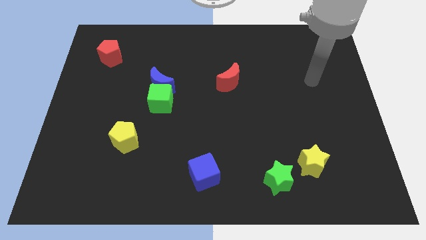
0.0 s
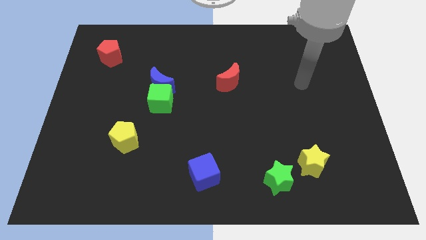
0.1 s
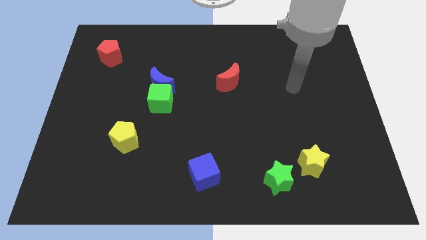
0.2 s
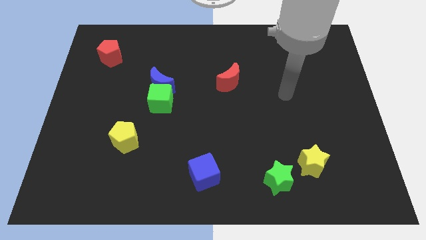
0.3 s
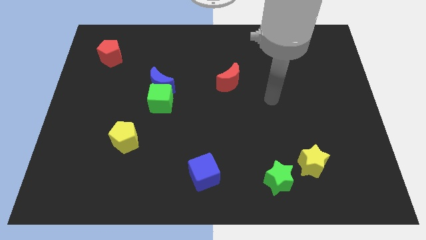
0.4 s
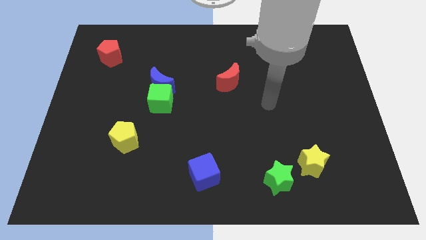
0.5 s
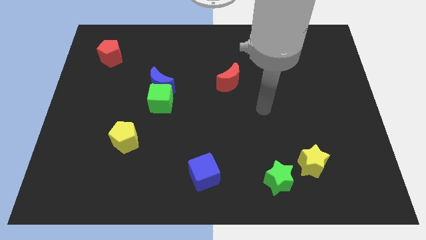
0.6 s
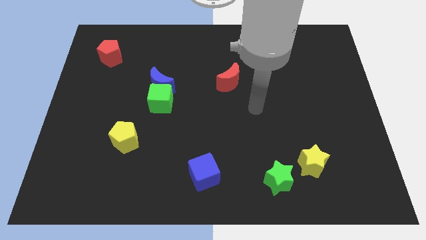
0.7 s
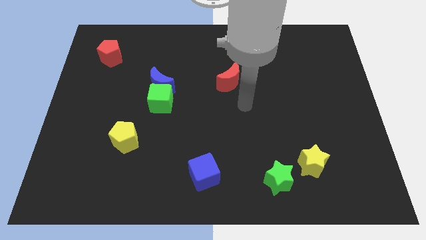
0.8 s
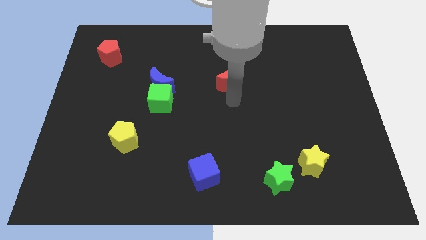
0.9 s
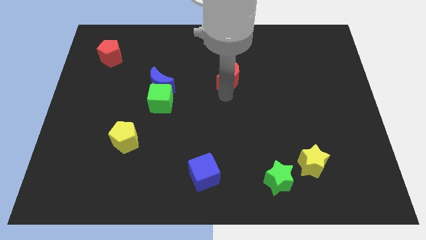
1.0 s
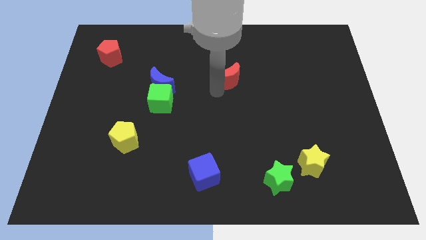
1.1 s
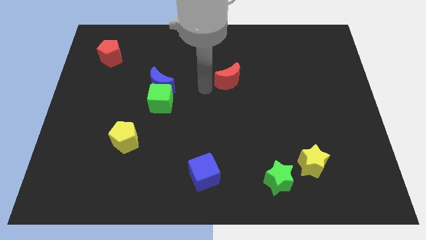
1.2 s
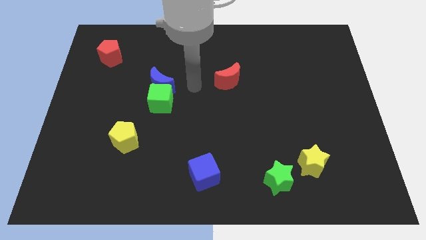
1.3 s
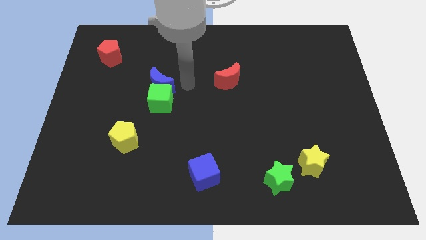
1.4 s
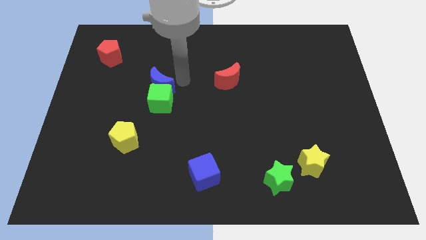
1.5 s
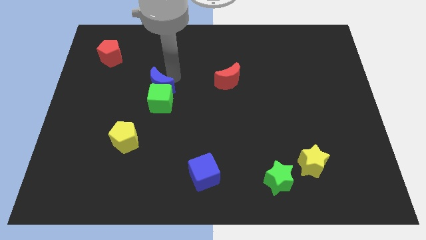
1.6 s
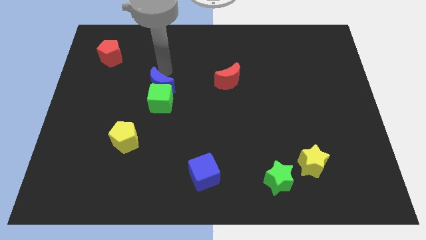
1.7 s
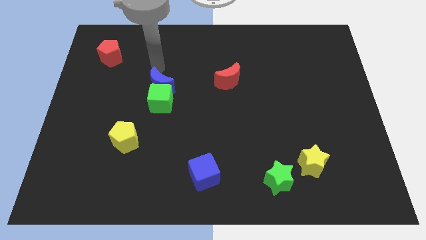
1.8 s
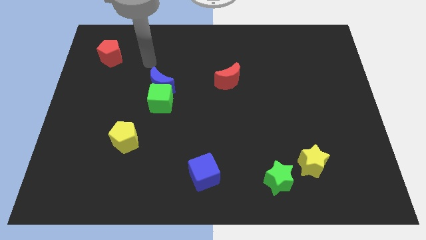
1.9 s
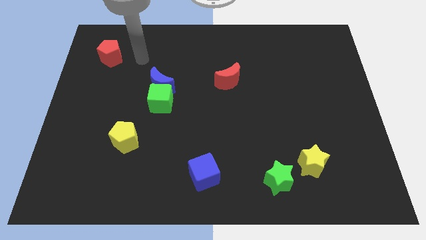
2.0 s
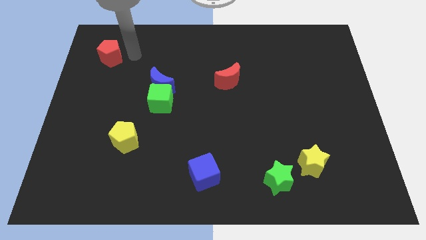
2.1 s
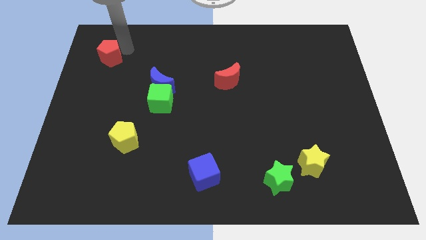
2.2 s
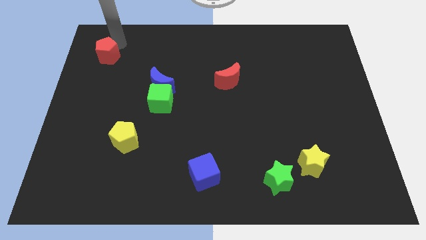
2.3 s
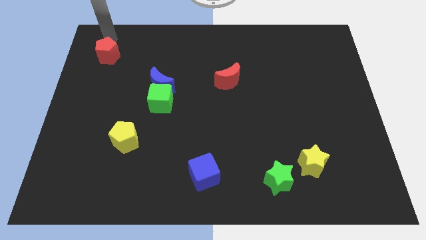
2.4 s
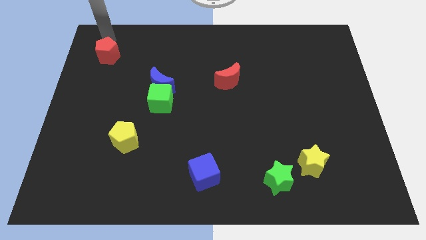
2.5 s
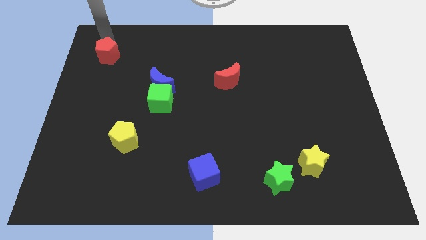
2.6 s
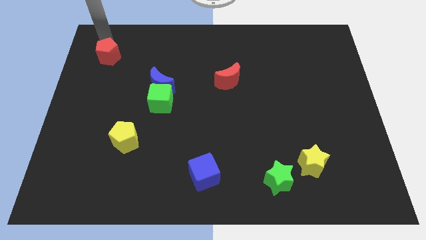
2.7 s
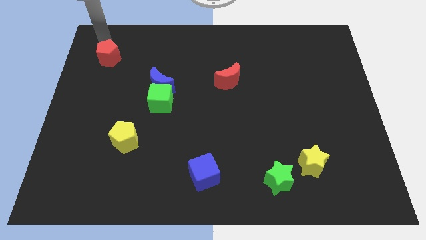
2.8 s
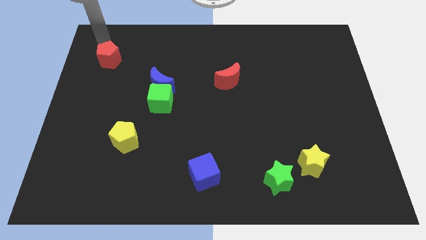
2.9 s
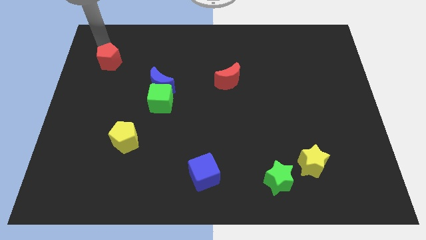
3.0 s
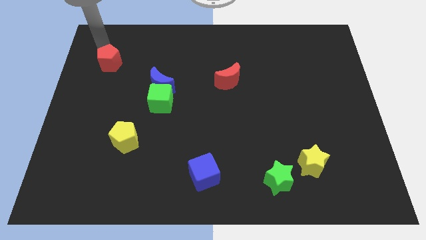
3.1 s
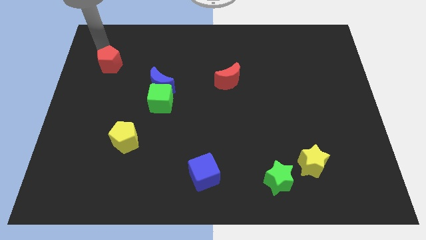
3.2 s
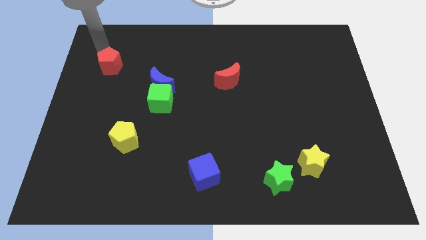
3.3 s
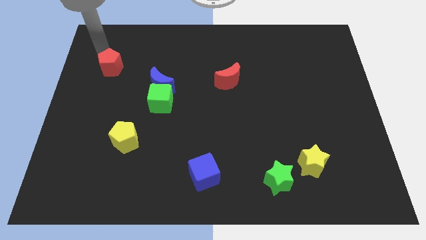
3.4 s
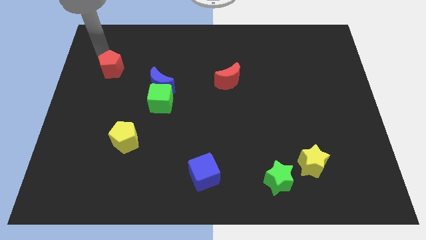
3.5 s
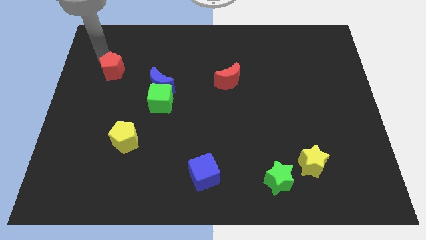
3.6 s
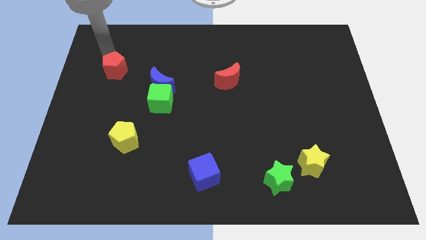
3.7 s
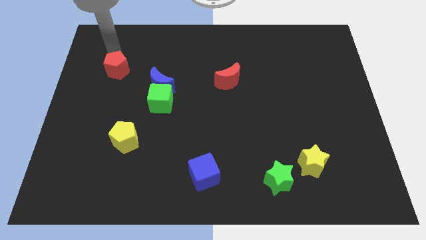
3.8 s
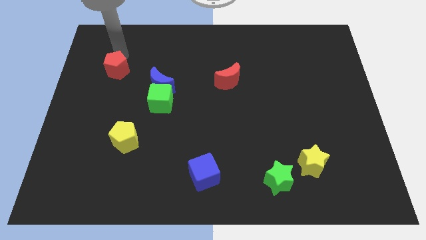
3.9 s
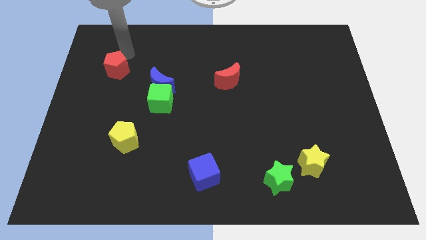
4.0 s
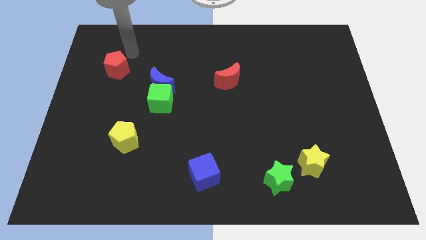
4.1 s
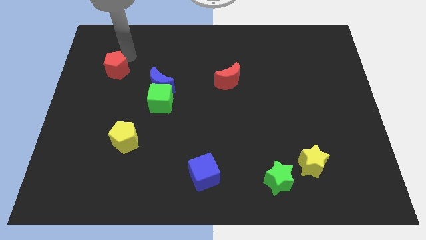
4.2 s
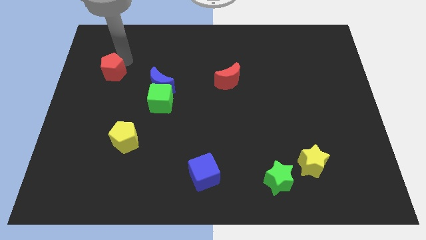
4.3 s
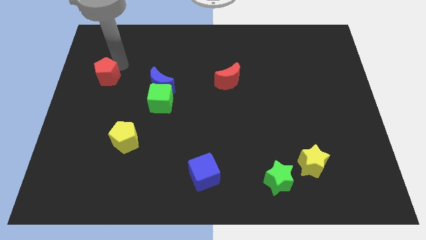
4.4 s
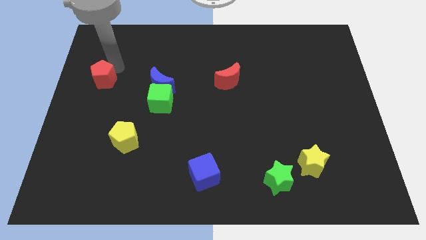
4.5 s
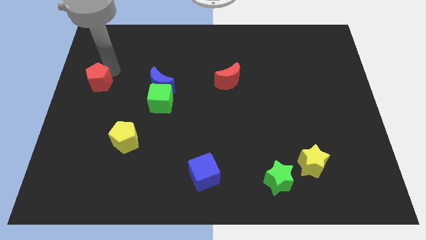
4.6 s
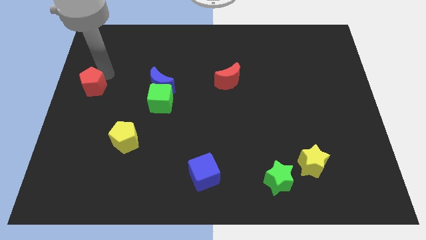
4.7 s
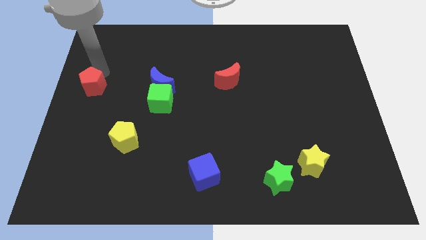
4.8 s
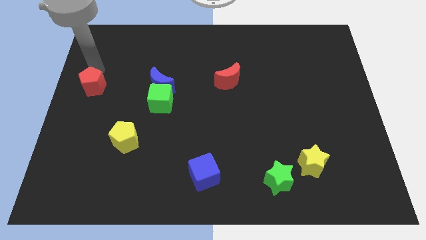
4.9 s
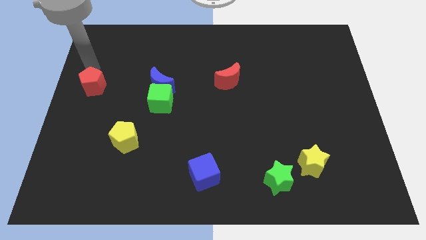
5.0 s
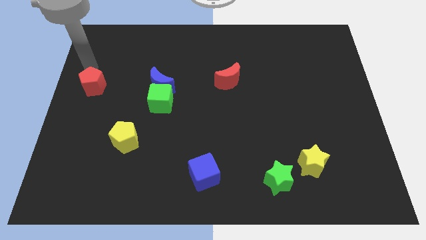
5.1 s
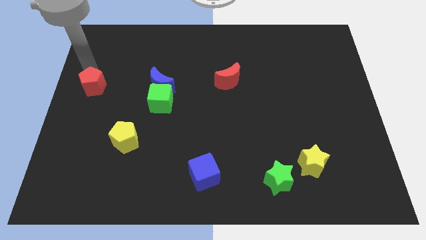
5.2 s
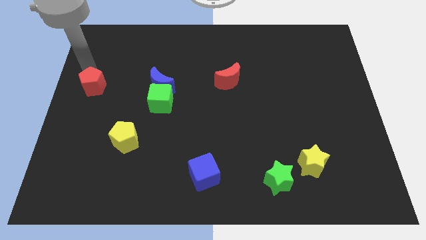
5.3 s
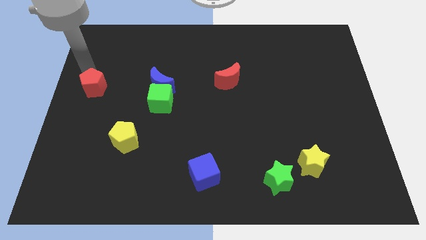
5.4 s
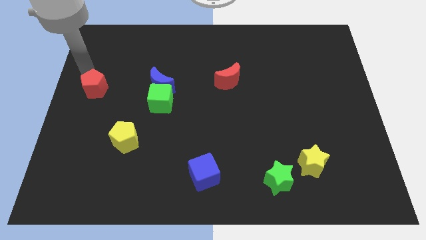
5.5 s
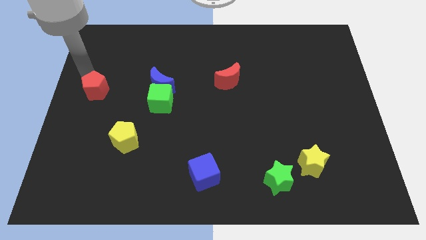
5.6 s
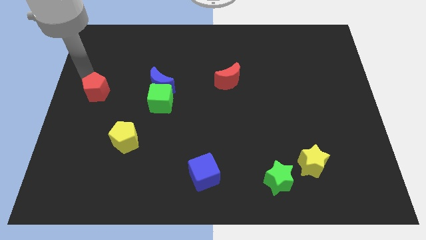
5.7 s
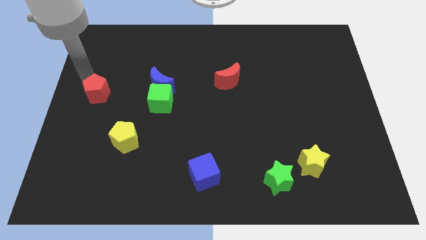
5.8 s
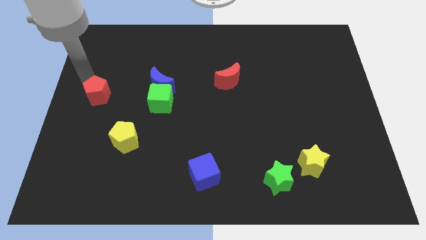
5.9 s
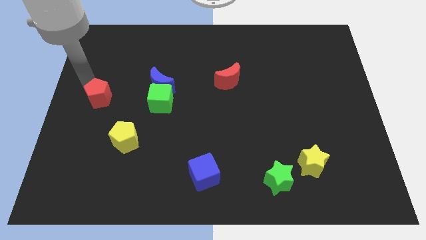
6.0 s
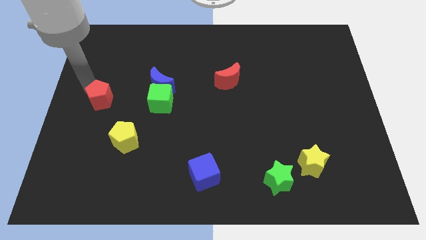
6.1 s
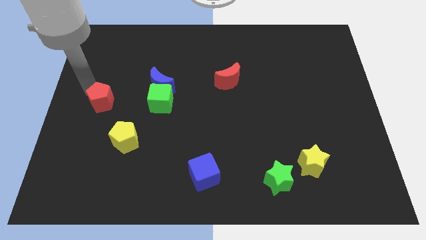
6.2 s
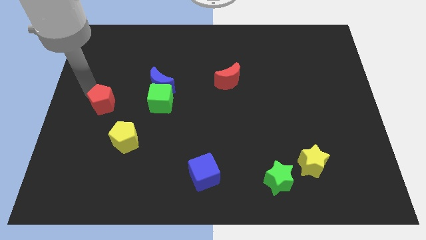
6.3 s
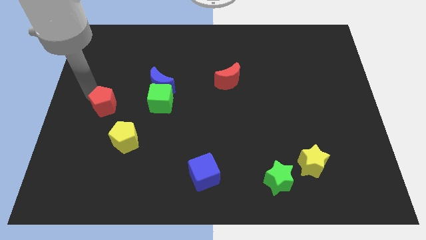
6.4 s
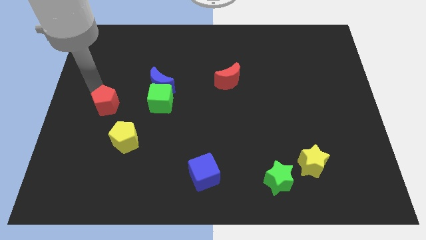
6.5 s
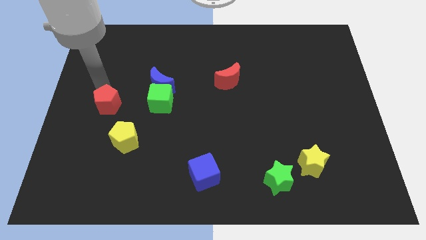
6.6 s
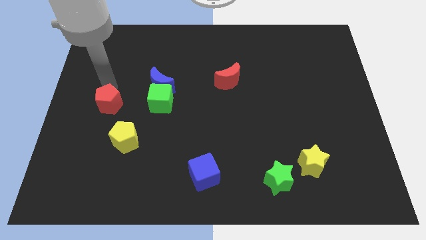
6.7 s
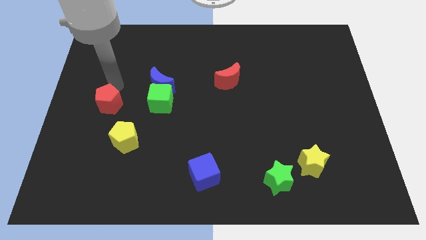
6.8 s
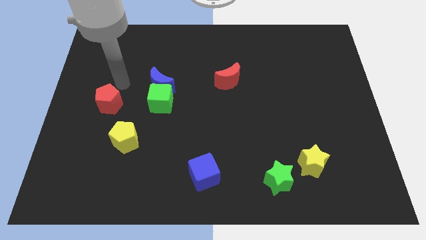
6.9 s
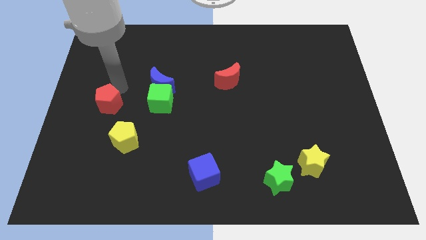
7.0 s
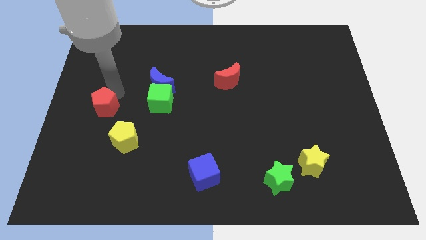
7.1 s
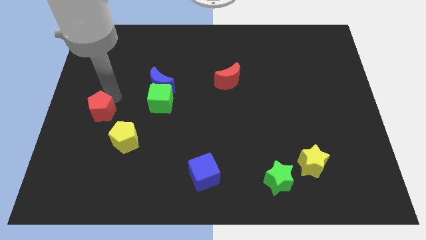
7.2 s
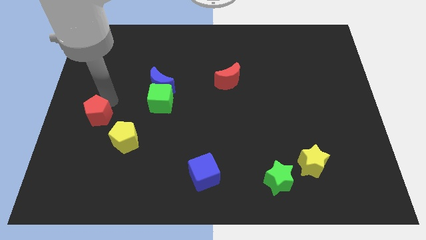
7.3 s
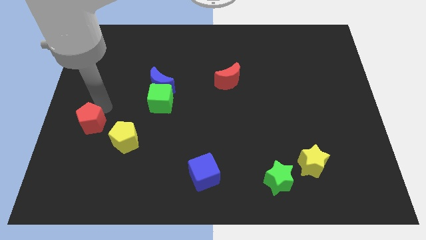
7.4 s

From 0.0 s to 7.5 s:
slide the red pentagon down
